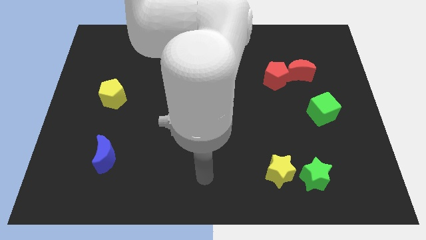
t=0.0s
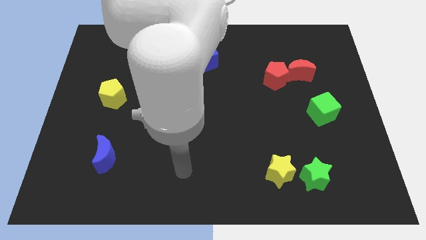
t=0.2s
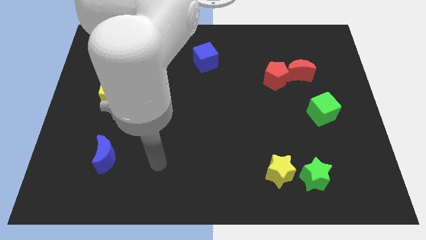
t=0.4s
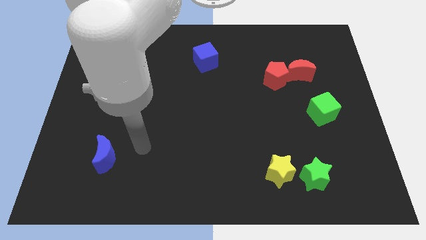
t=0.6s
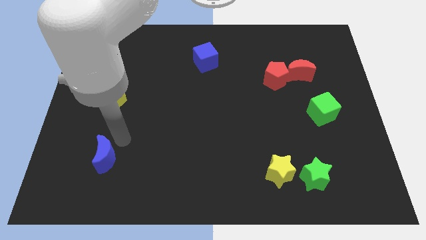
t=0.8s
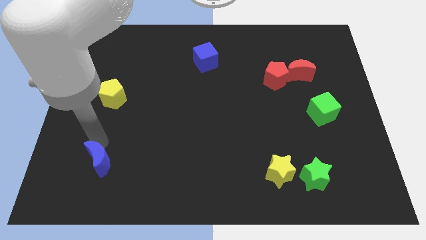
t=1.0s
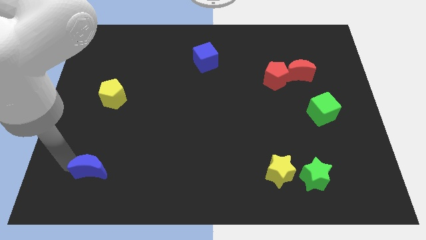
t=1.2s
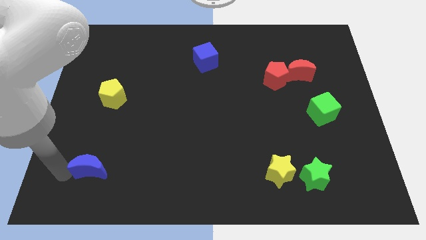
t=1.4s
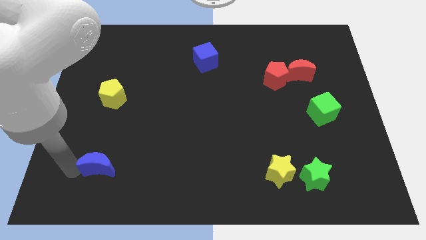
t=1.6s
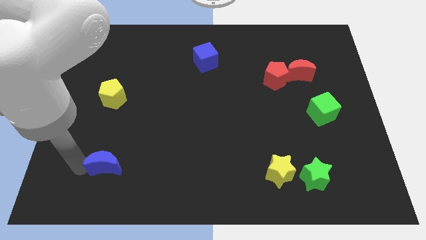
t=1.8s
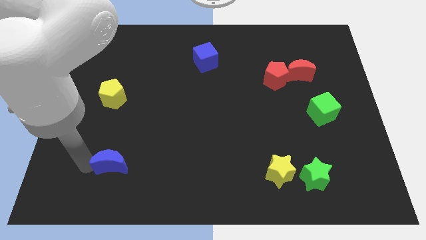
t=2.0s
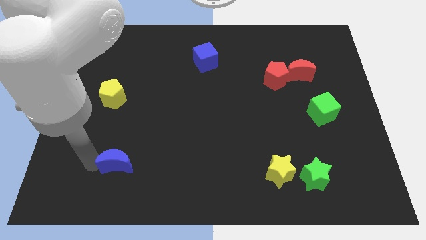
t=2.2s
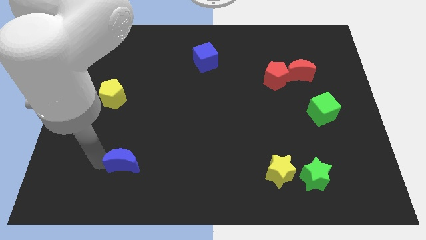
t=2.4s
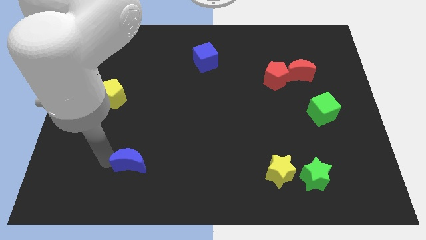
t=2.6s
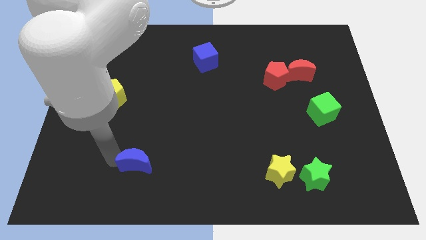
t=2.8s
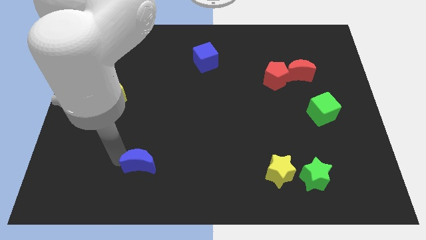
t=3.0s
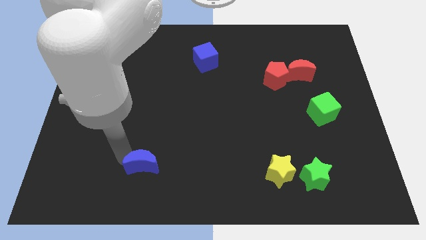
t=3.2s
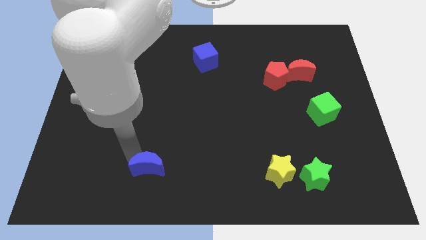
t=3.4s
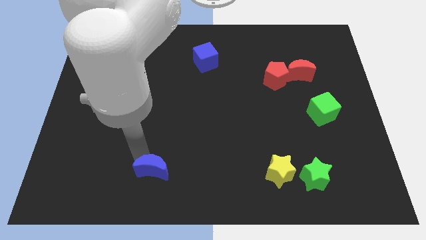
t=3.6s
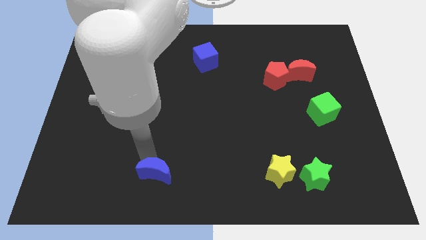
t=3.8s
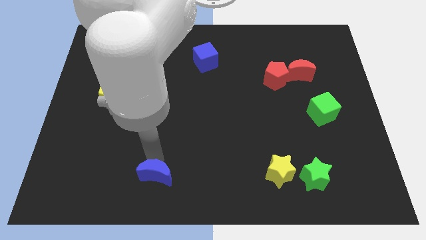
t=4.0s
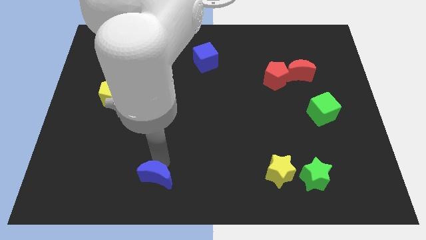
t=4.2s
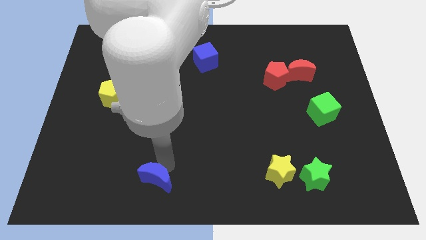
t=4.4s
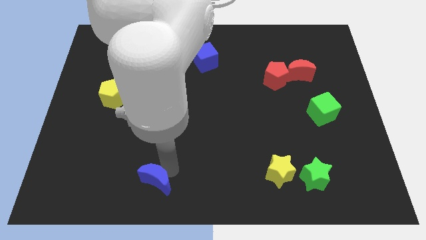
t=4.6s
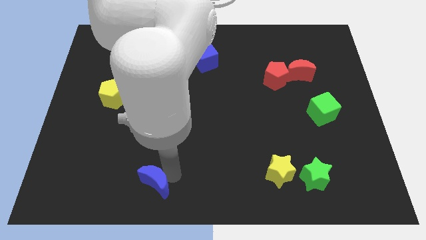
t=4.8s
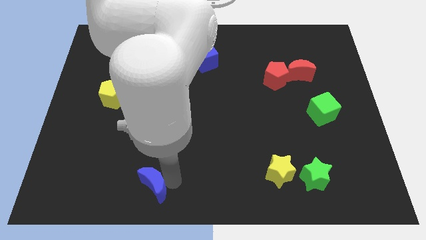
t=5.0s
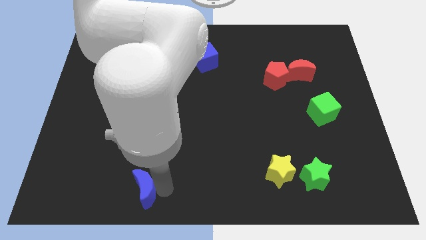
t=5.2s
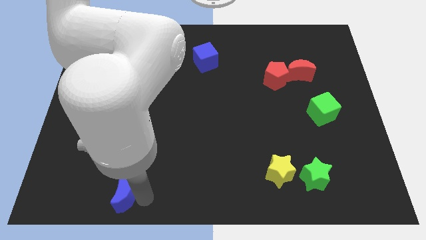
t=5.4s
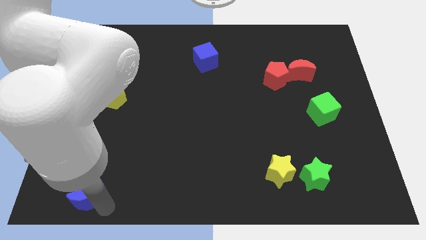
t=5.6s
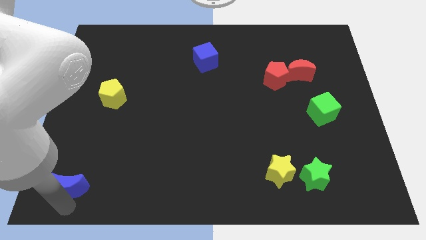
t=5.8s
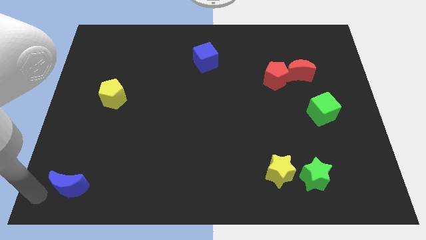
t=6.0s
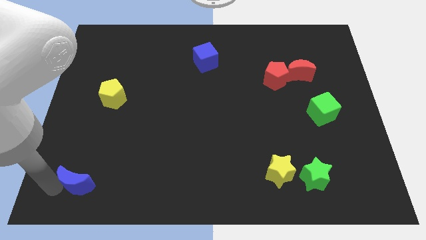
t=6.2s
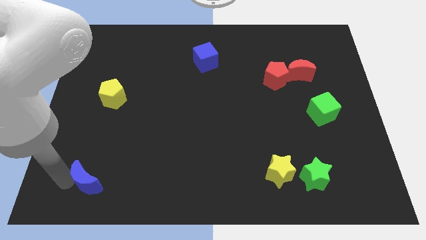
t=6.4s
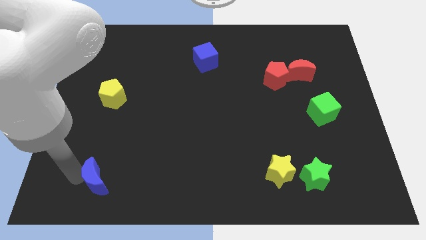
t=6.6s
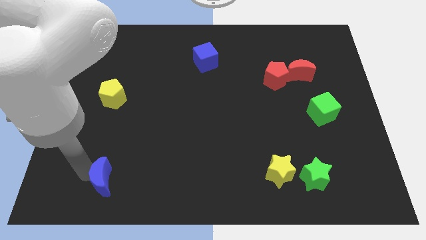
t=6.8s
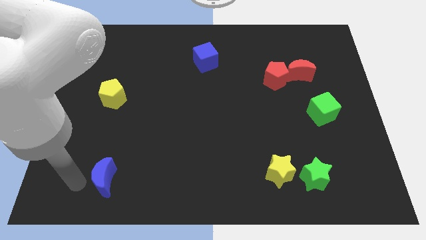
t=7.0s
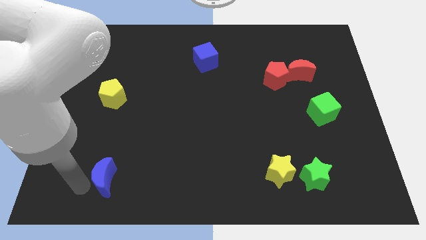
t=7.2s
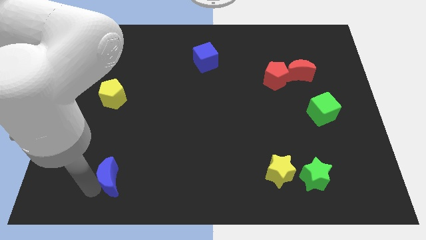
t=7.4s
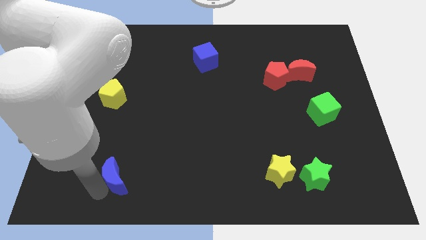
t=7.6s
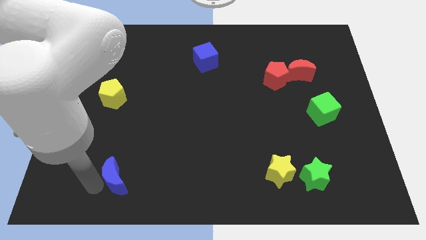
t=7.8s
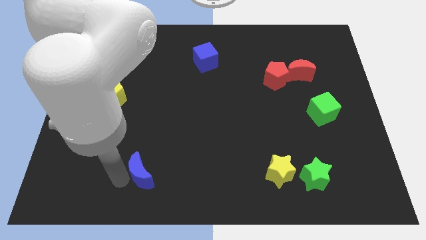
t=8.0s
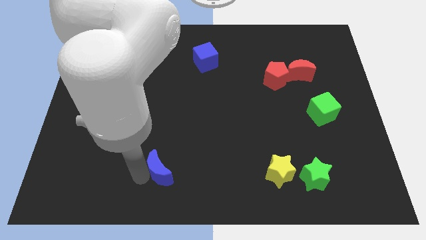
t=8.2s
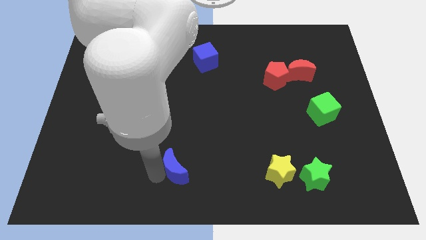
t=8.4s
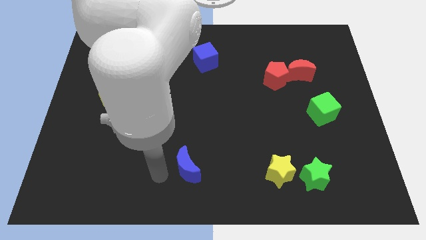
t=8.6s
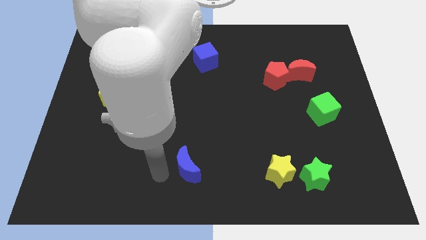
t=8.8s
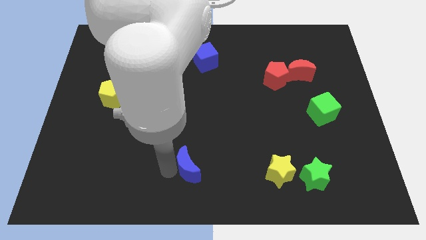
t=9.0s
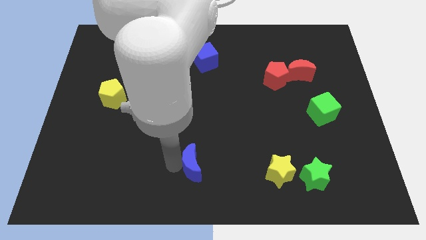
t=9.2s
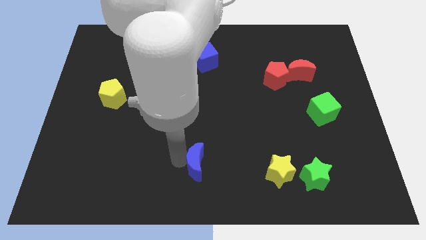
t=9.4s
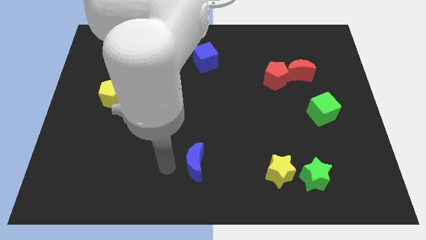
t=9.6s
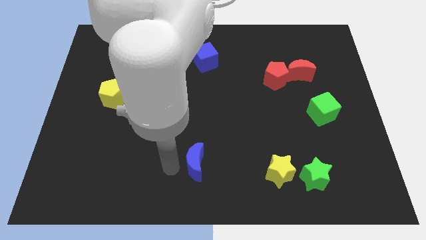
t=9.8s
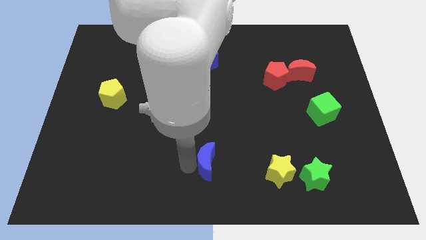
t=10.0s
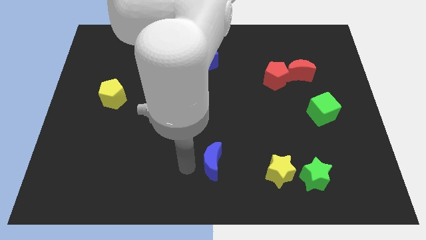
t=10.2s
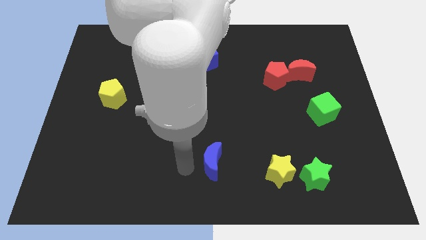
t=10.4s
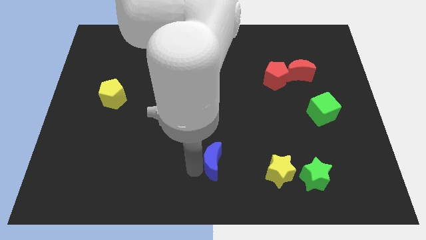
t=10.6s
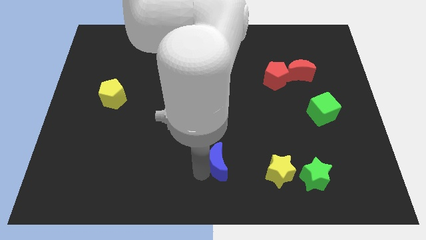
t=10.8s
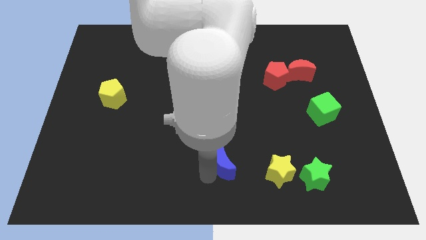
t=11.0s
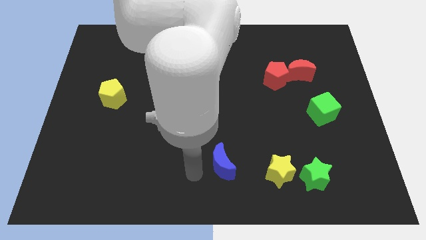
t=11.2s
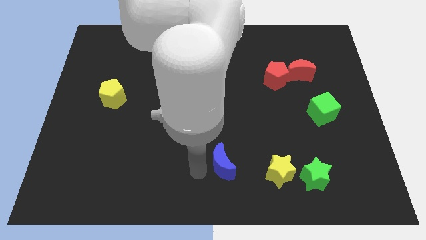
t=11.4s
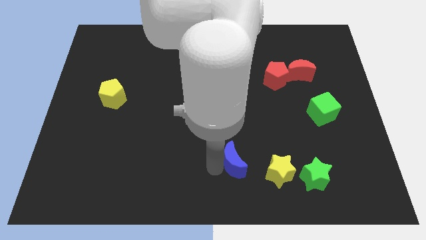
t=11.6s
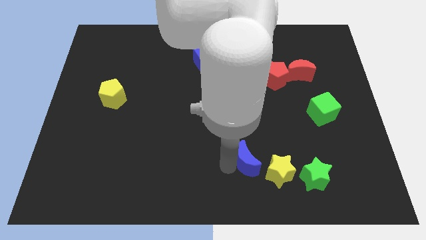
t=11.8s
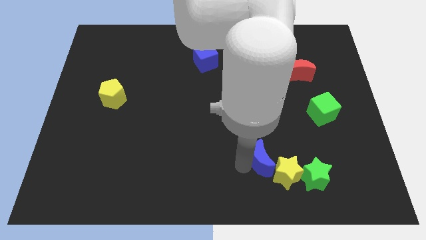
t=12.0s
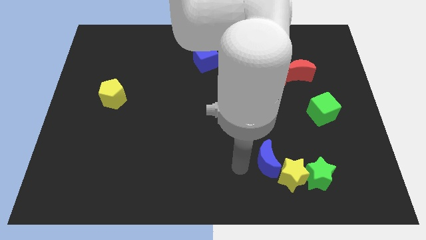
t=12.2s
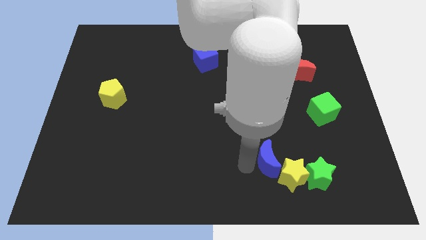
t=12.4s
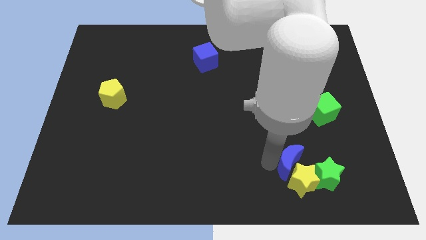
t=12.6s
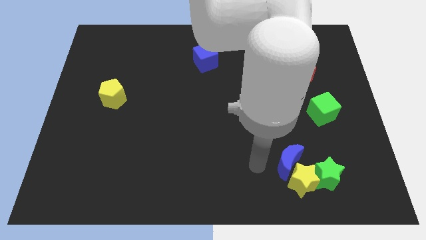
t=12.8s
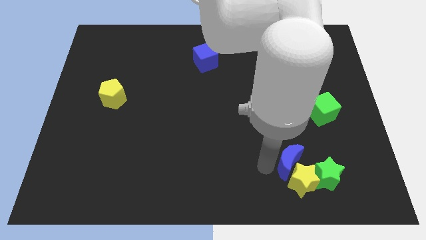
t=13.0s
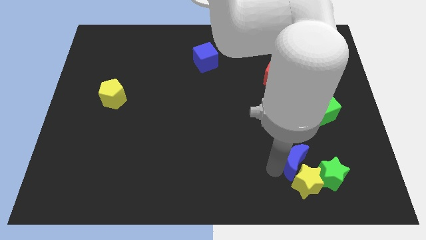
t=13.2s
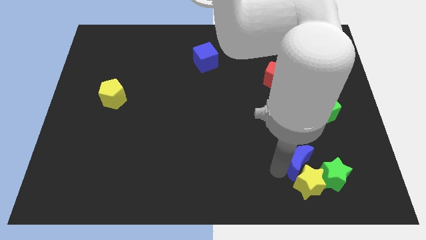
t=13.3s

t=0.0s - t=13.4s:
push the blue moon to the top right side of the yellow star

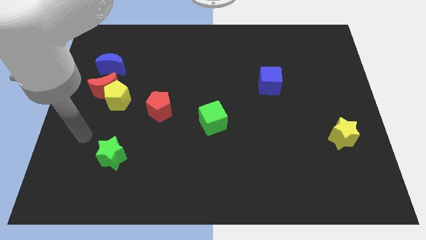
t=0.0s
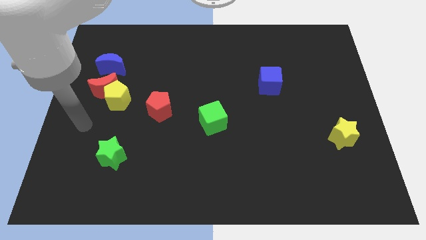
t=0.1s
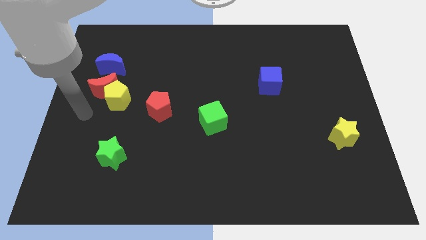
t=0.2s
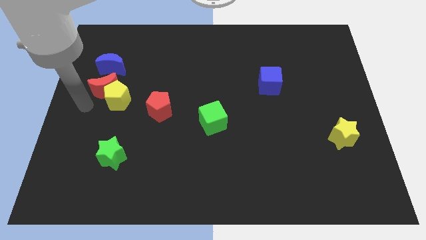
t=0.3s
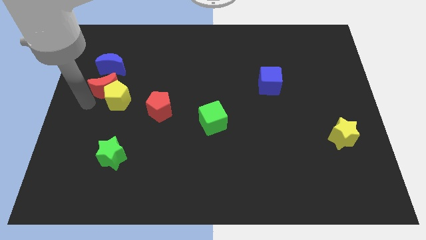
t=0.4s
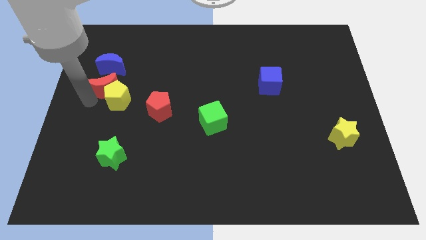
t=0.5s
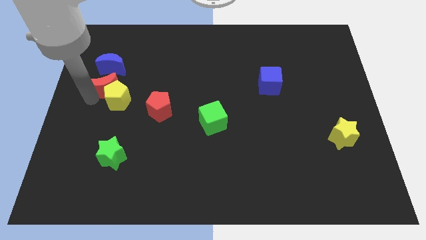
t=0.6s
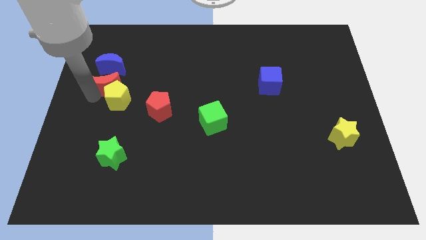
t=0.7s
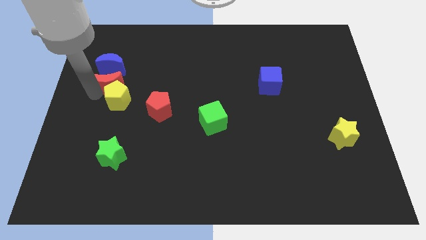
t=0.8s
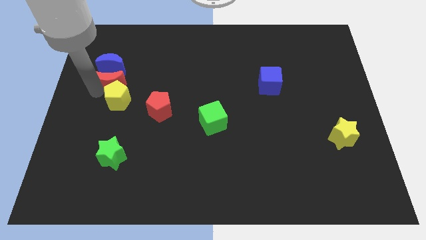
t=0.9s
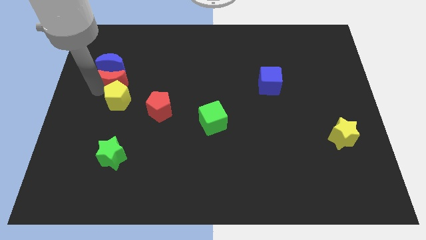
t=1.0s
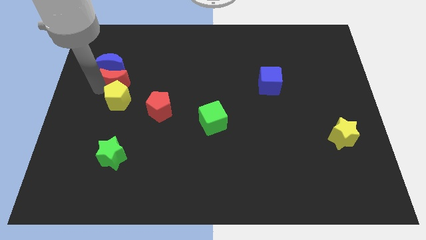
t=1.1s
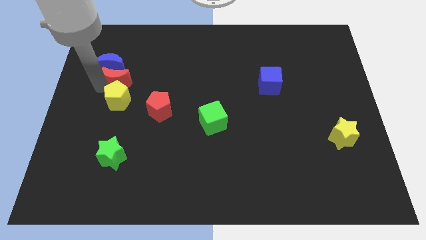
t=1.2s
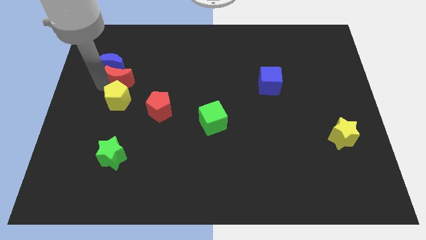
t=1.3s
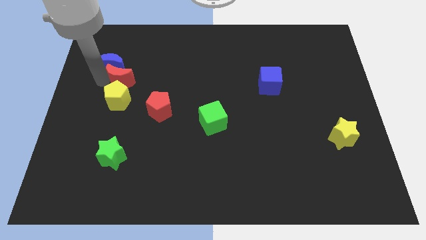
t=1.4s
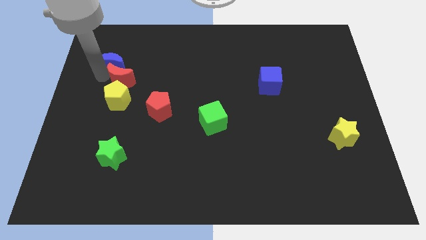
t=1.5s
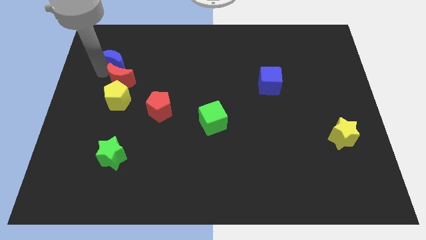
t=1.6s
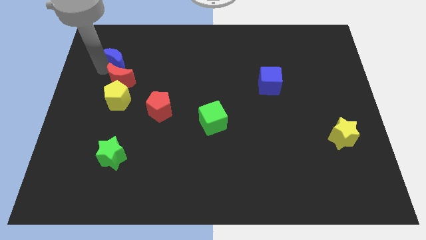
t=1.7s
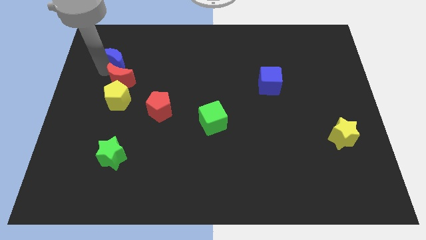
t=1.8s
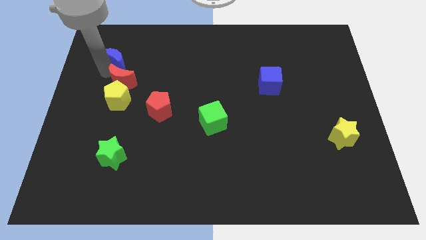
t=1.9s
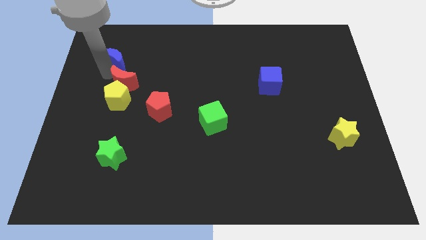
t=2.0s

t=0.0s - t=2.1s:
push the red moon to the top left of the red pentagon
